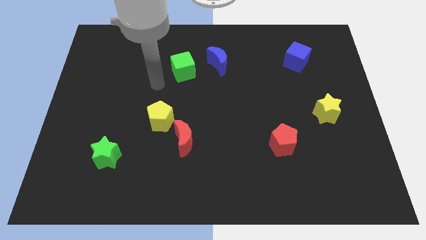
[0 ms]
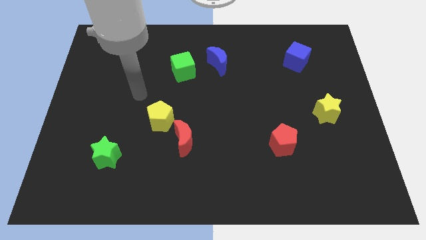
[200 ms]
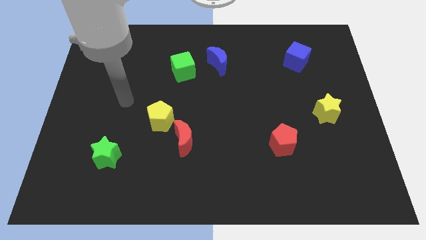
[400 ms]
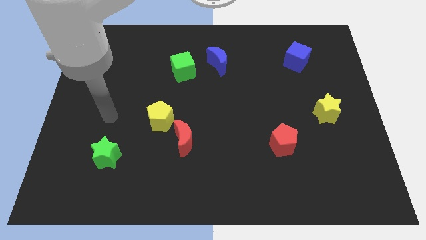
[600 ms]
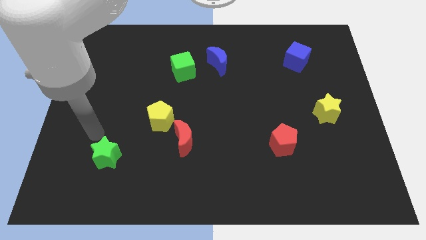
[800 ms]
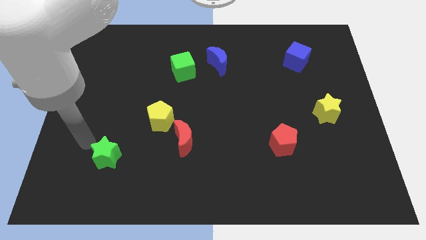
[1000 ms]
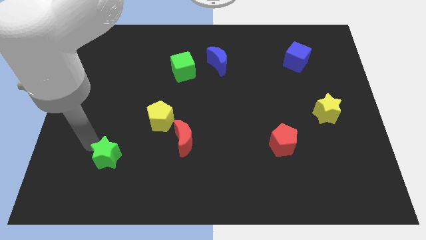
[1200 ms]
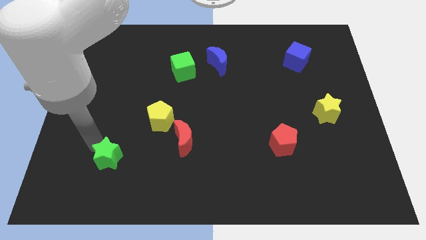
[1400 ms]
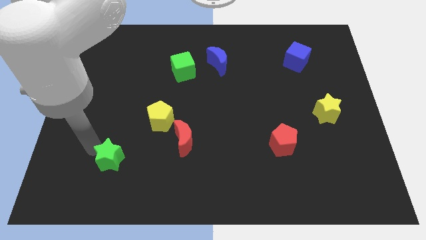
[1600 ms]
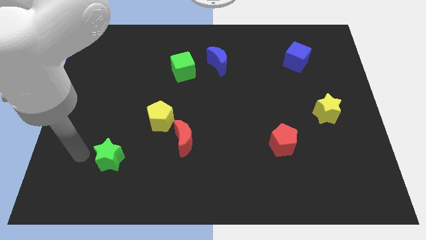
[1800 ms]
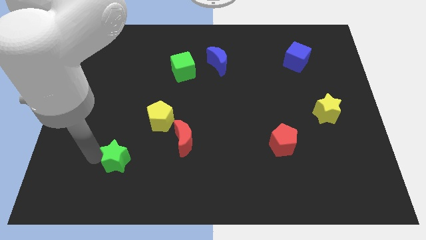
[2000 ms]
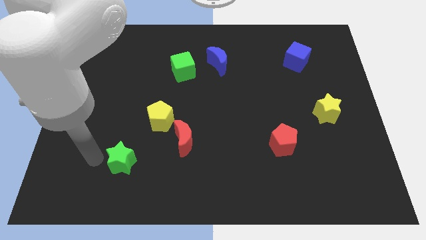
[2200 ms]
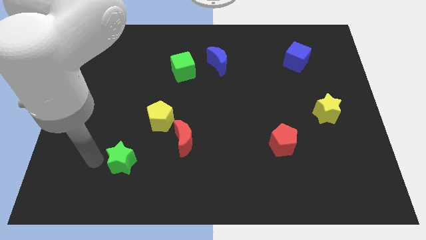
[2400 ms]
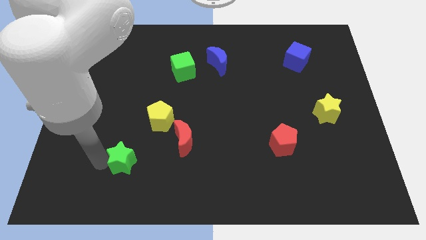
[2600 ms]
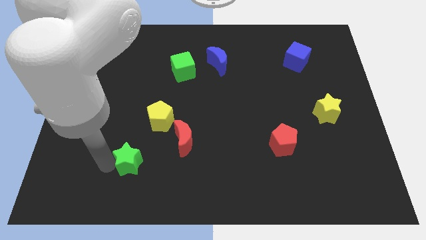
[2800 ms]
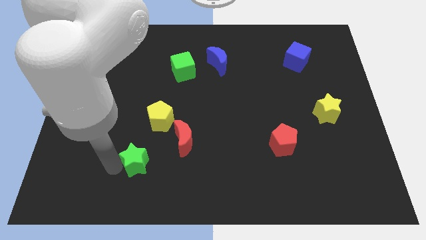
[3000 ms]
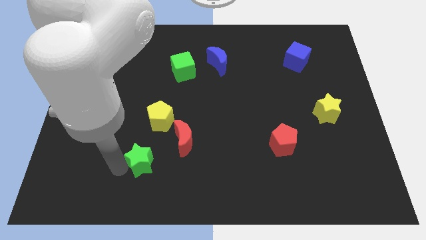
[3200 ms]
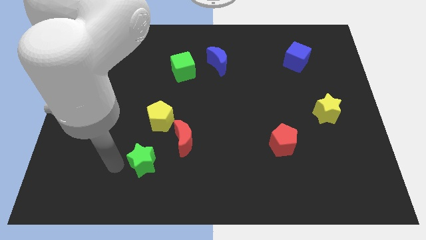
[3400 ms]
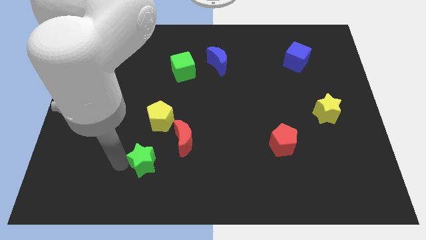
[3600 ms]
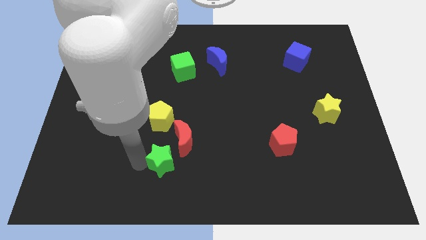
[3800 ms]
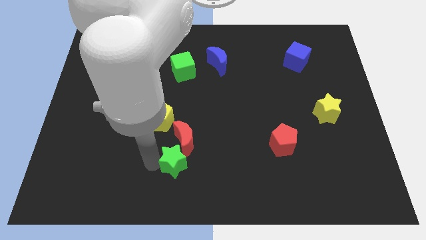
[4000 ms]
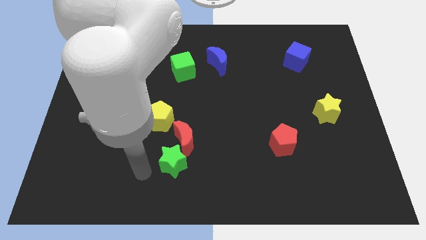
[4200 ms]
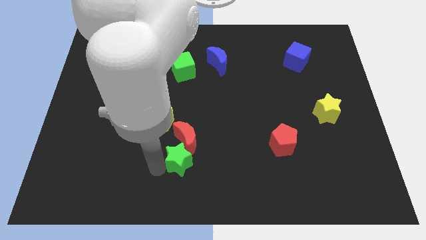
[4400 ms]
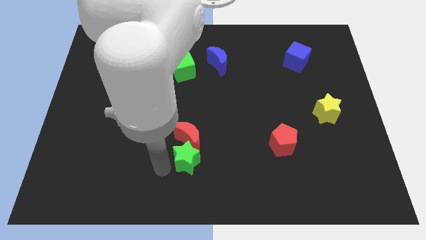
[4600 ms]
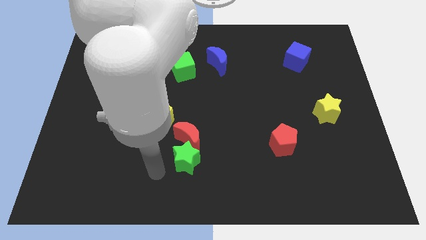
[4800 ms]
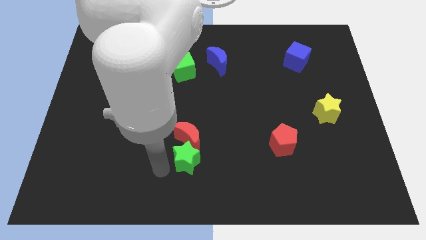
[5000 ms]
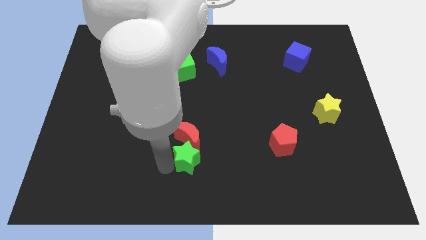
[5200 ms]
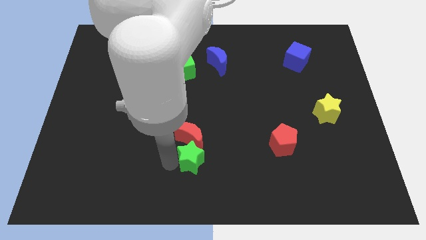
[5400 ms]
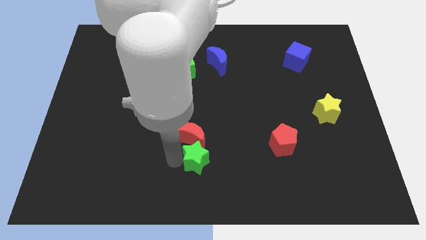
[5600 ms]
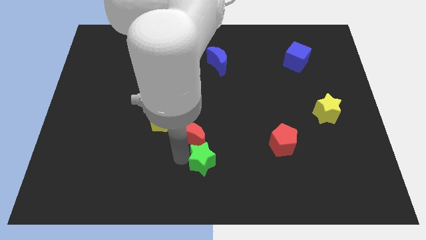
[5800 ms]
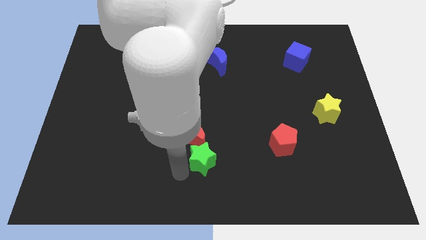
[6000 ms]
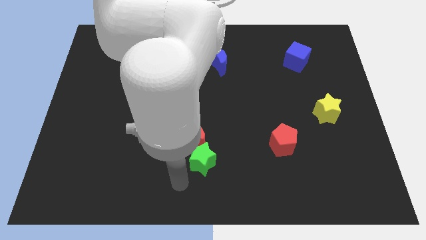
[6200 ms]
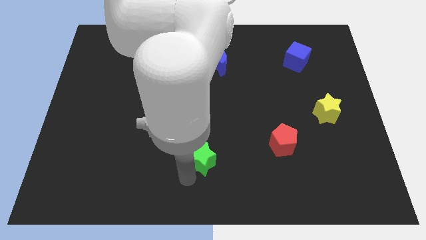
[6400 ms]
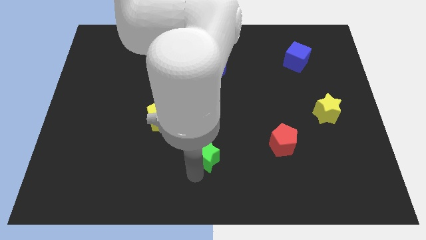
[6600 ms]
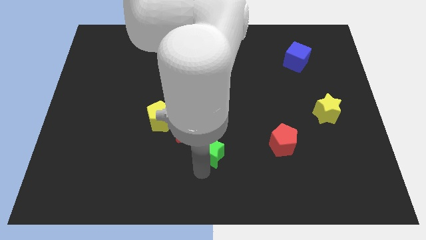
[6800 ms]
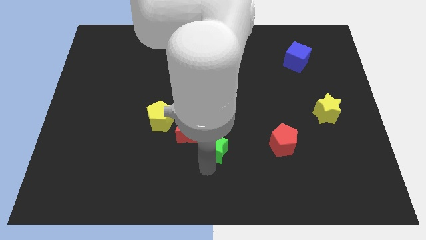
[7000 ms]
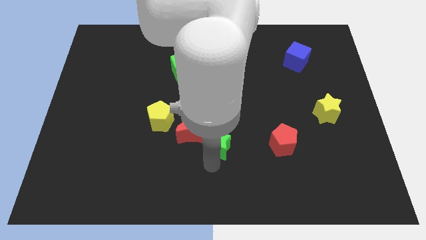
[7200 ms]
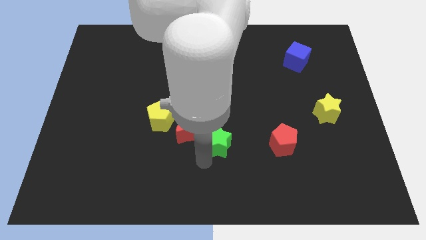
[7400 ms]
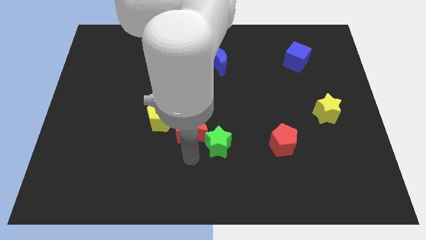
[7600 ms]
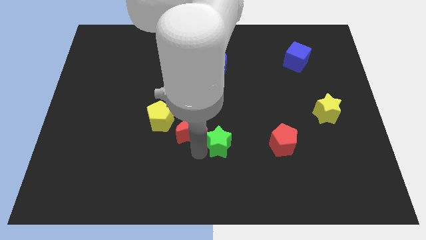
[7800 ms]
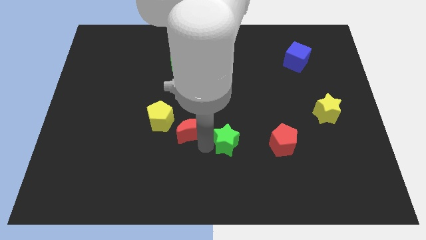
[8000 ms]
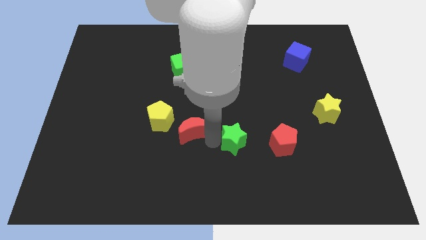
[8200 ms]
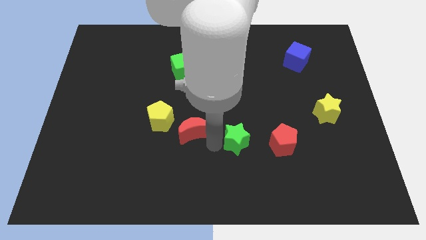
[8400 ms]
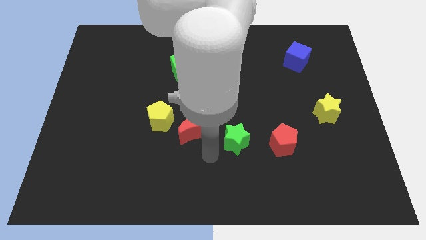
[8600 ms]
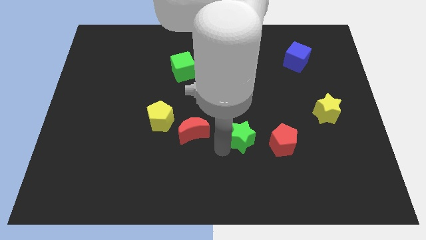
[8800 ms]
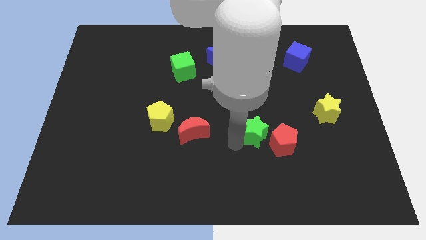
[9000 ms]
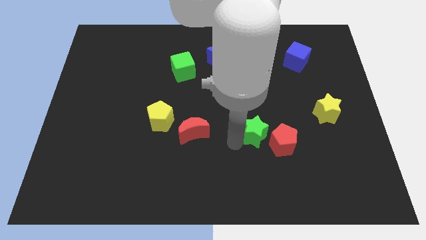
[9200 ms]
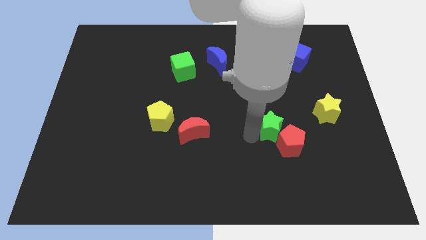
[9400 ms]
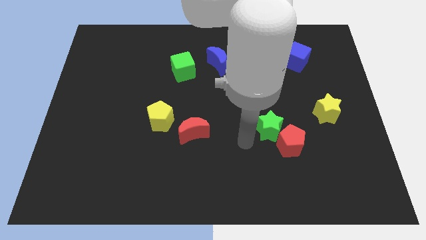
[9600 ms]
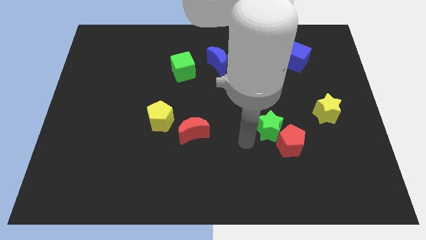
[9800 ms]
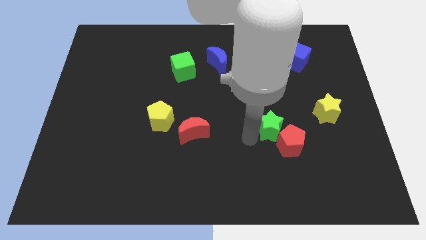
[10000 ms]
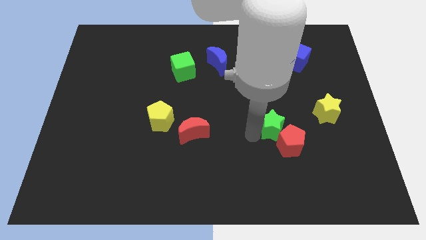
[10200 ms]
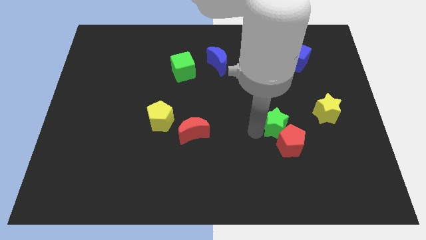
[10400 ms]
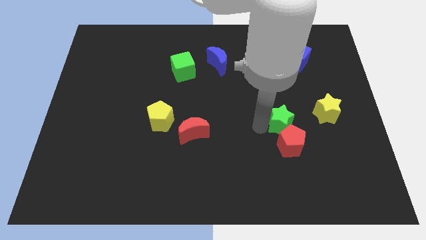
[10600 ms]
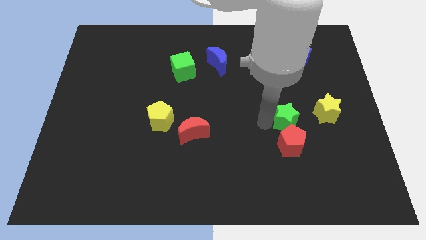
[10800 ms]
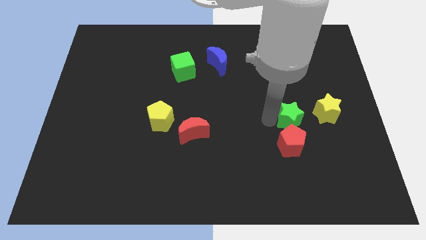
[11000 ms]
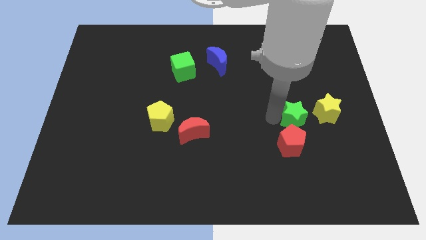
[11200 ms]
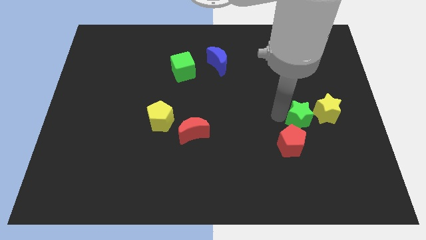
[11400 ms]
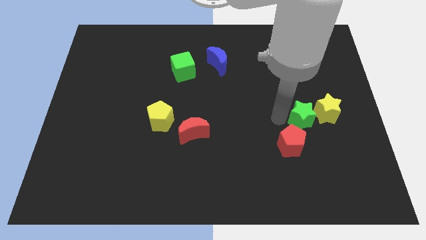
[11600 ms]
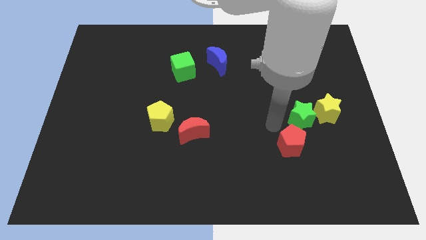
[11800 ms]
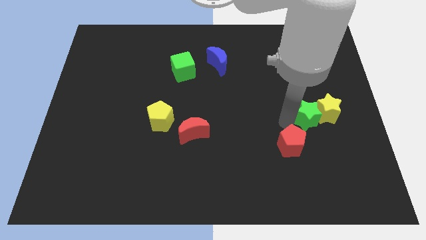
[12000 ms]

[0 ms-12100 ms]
push the green star to the yellow star

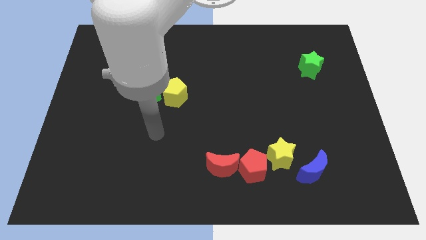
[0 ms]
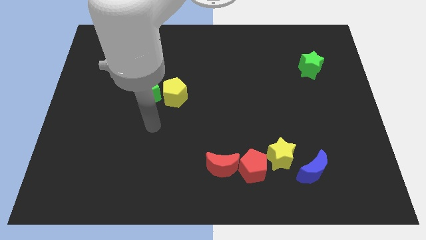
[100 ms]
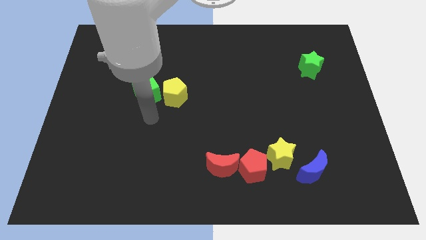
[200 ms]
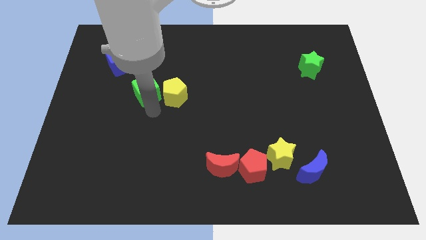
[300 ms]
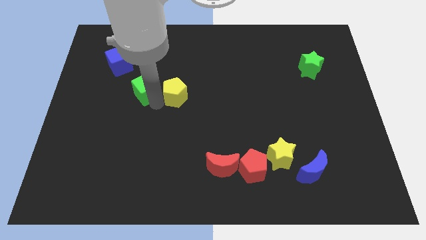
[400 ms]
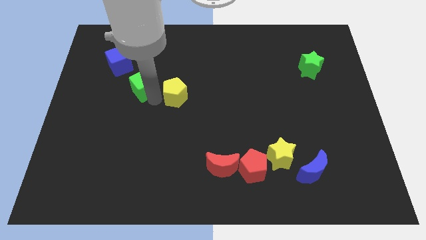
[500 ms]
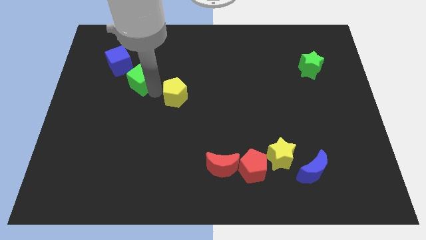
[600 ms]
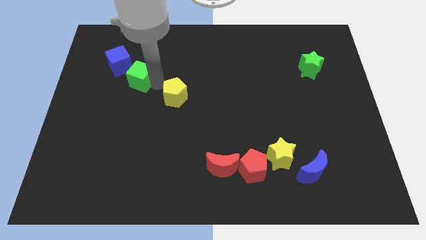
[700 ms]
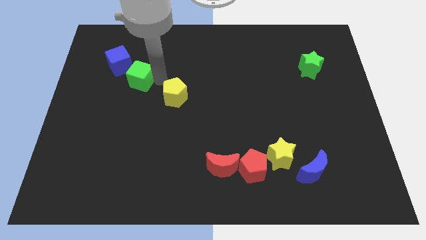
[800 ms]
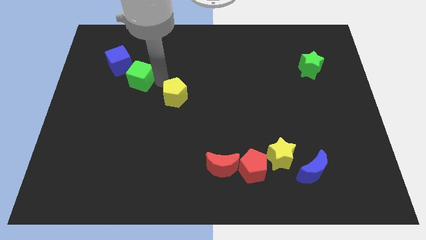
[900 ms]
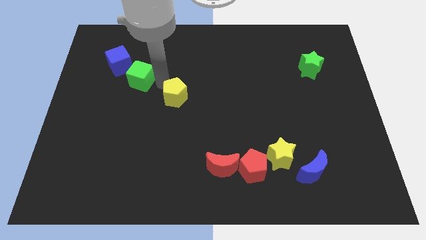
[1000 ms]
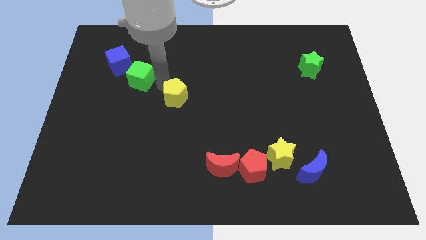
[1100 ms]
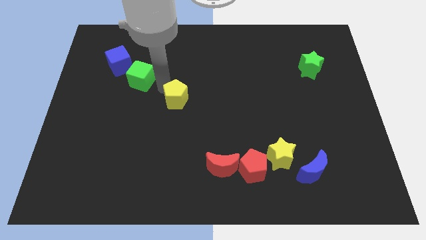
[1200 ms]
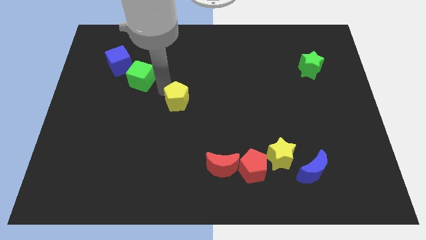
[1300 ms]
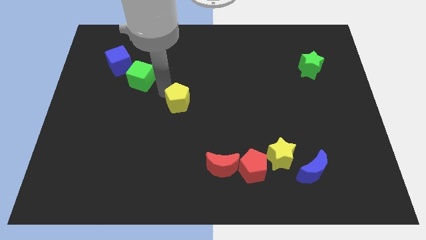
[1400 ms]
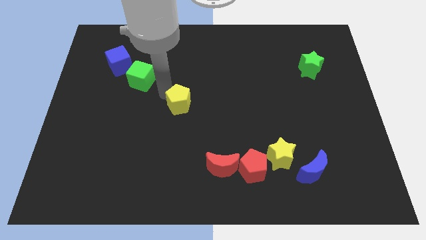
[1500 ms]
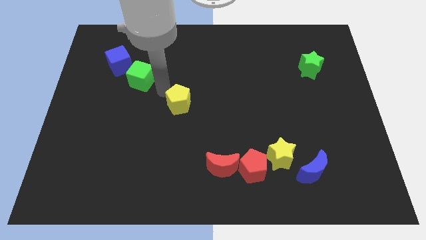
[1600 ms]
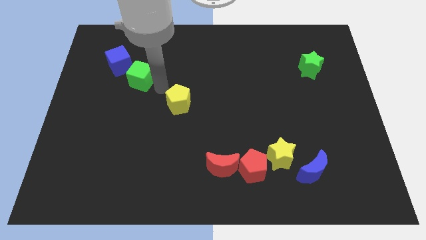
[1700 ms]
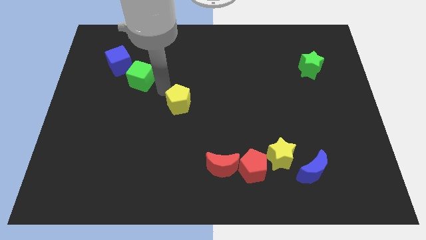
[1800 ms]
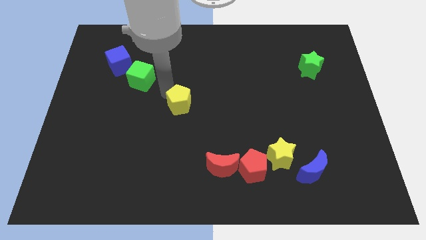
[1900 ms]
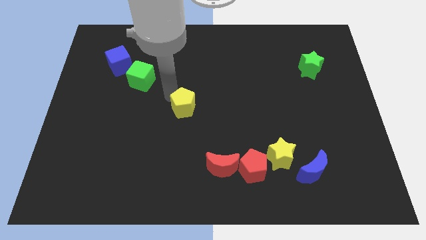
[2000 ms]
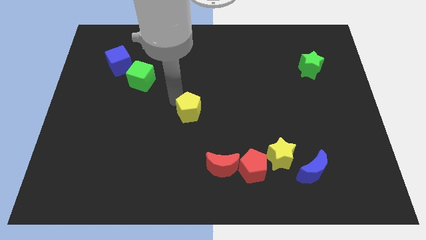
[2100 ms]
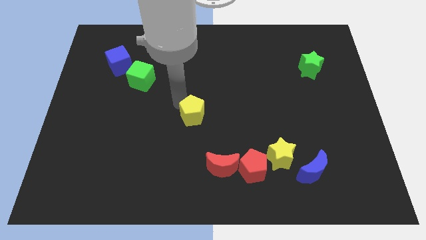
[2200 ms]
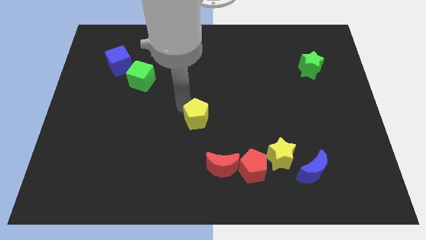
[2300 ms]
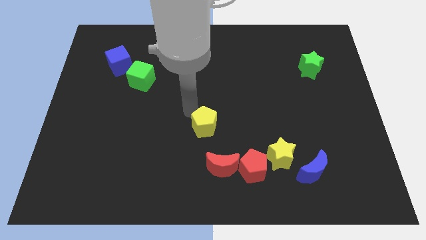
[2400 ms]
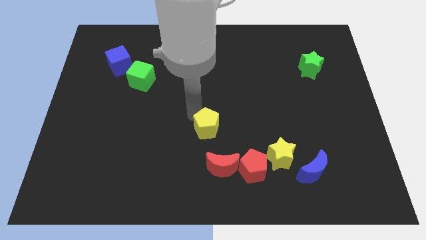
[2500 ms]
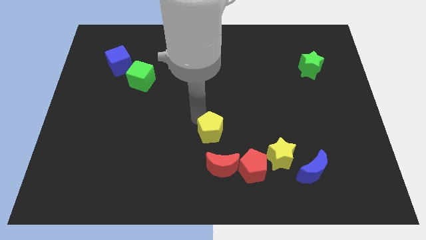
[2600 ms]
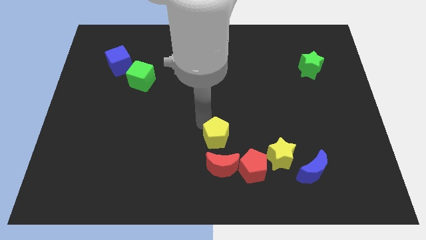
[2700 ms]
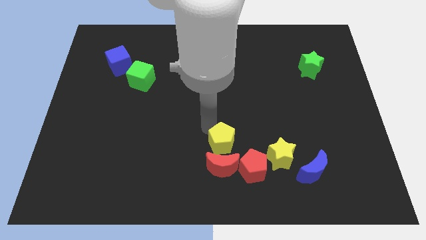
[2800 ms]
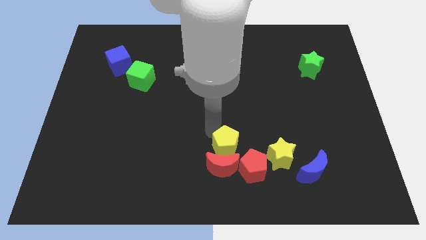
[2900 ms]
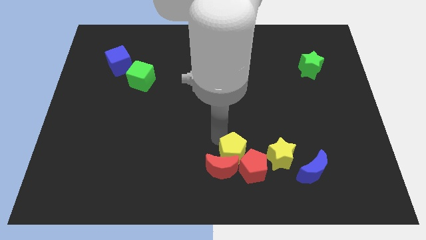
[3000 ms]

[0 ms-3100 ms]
push the yellow pentagon close to the red pentagon
